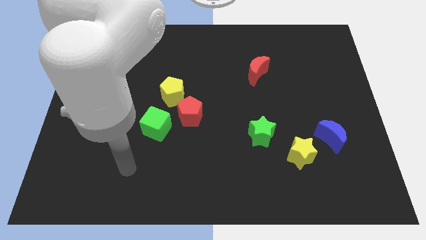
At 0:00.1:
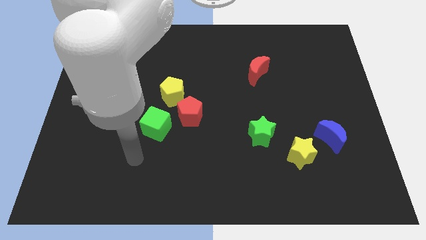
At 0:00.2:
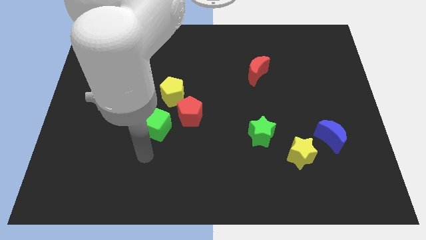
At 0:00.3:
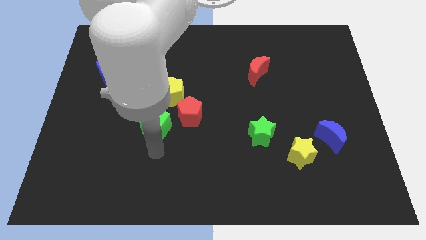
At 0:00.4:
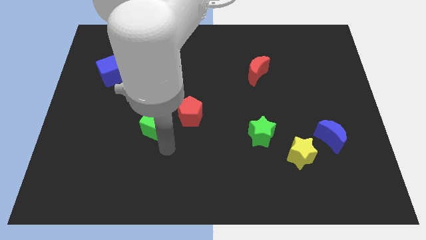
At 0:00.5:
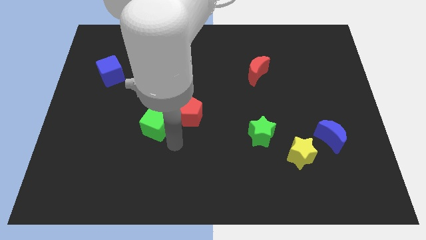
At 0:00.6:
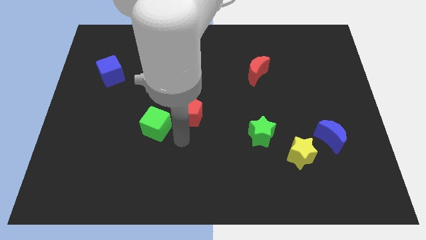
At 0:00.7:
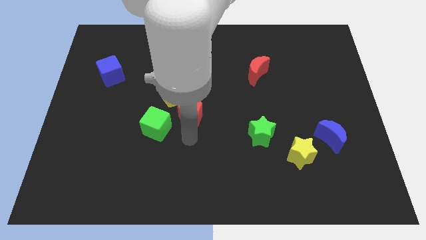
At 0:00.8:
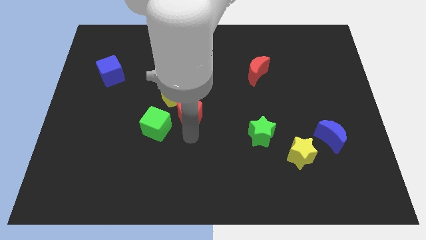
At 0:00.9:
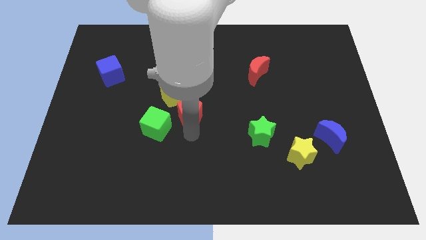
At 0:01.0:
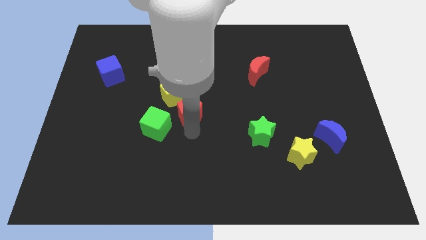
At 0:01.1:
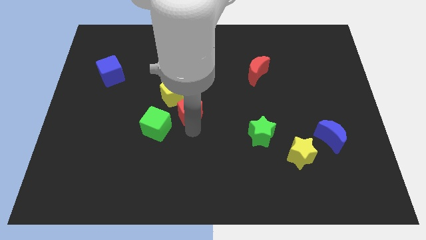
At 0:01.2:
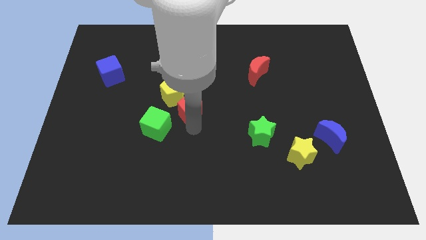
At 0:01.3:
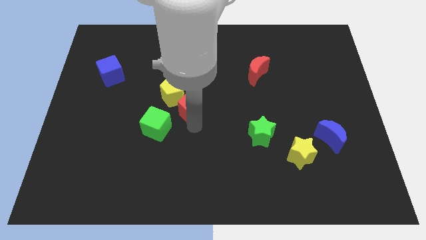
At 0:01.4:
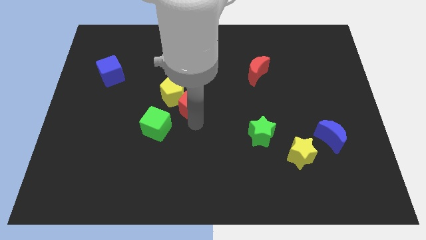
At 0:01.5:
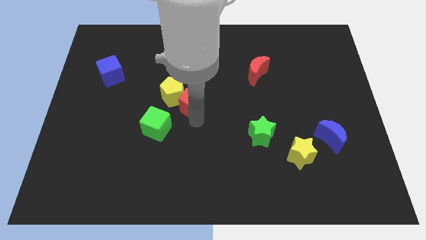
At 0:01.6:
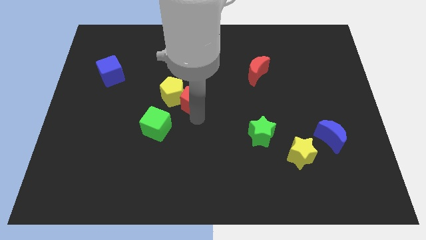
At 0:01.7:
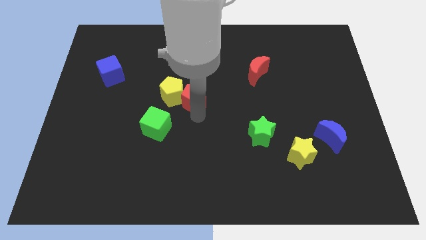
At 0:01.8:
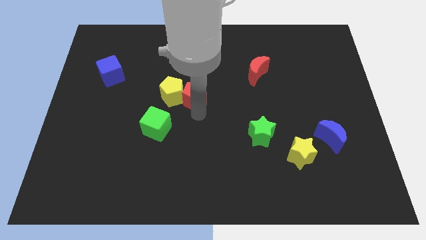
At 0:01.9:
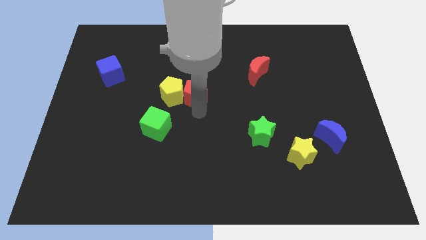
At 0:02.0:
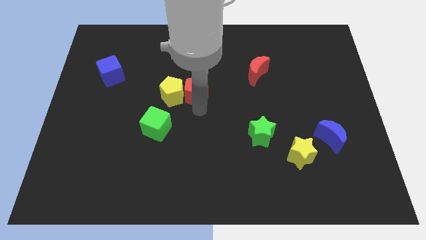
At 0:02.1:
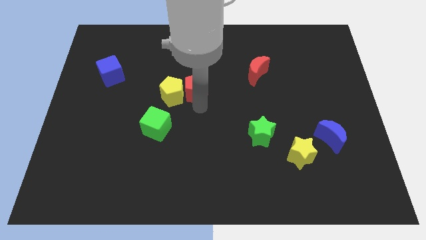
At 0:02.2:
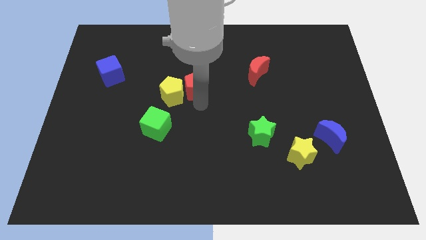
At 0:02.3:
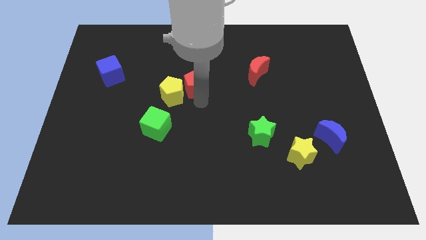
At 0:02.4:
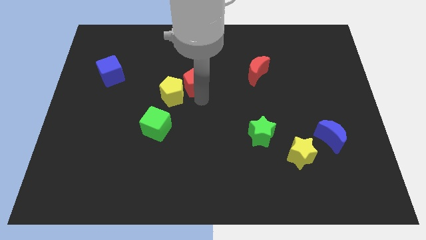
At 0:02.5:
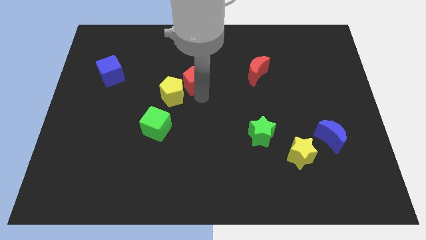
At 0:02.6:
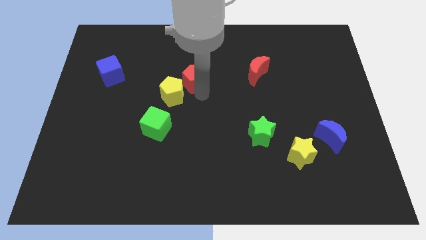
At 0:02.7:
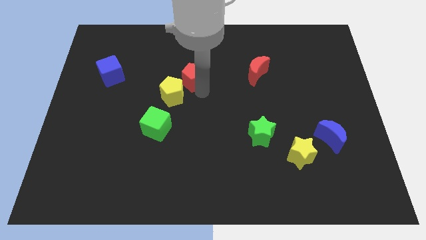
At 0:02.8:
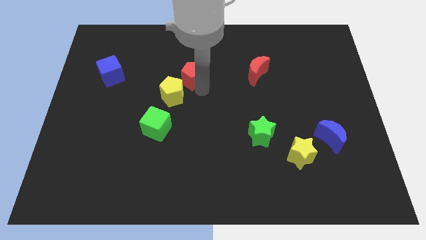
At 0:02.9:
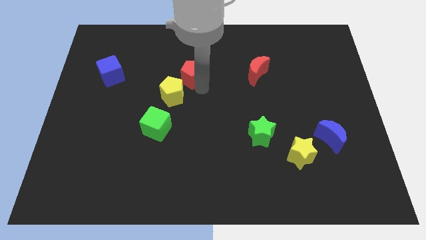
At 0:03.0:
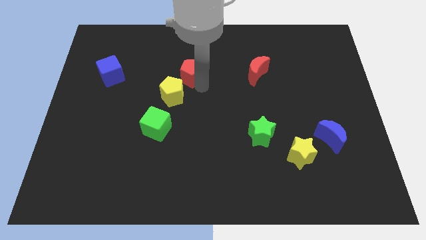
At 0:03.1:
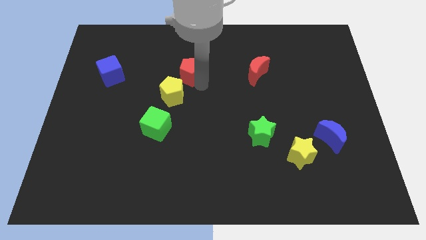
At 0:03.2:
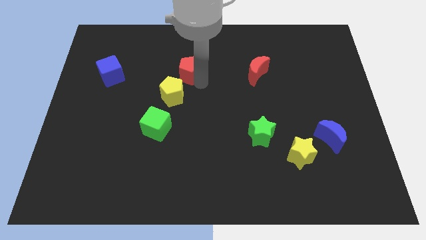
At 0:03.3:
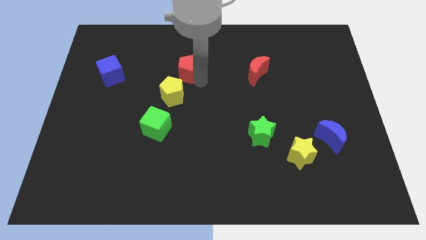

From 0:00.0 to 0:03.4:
slide the red pentagon somewhat up and then left

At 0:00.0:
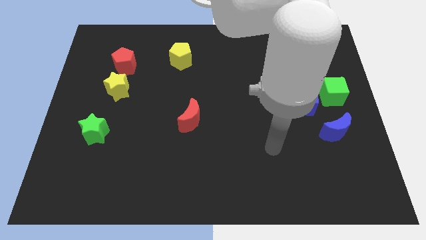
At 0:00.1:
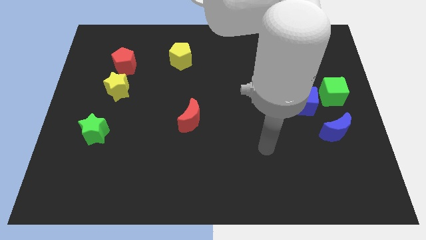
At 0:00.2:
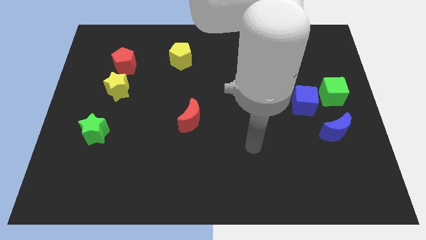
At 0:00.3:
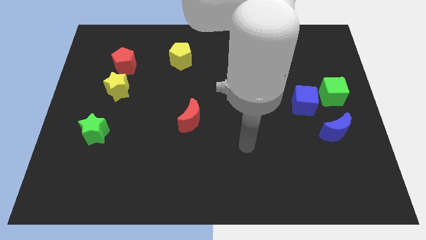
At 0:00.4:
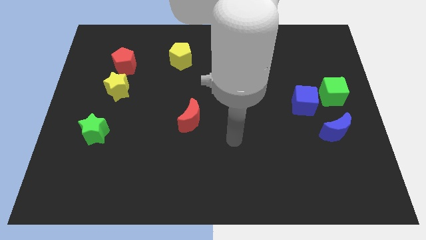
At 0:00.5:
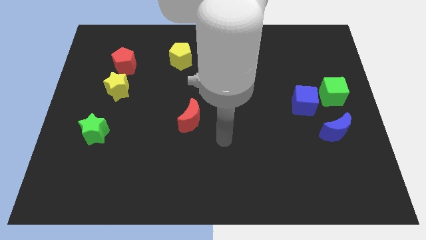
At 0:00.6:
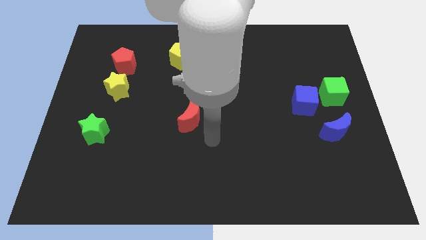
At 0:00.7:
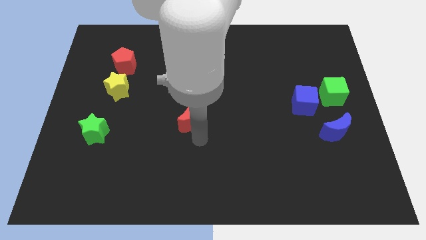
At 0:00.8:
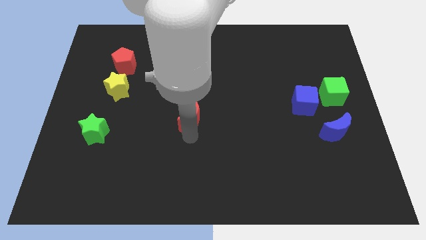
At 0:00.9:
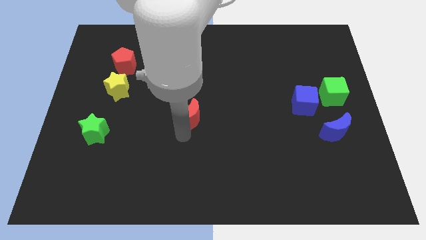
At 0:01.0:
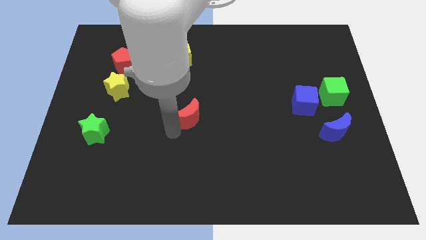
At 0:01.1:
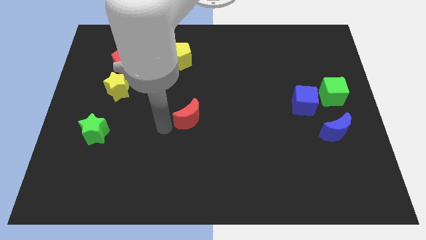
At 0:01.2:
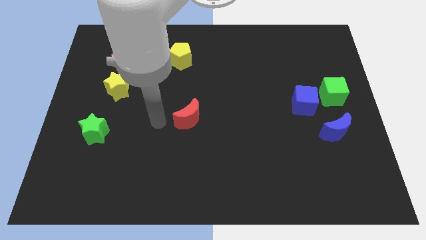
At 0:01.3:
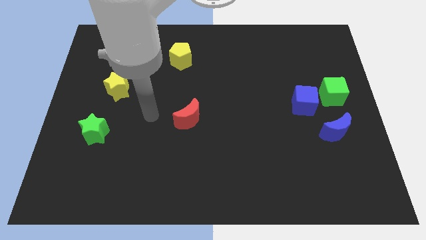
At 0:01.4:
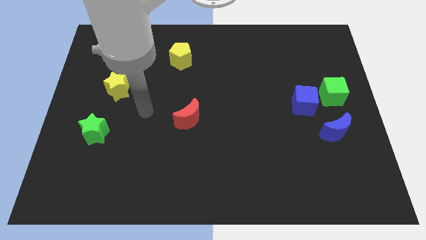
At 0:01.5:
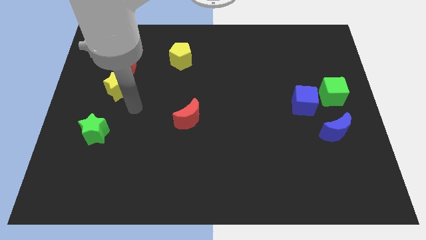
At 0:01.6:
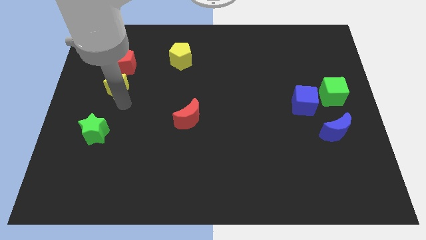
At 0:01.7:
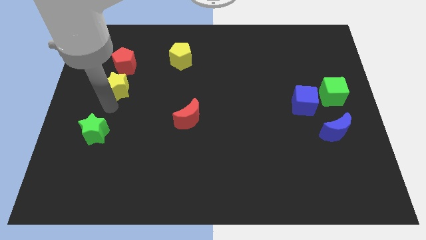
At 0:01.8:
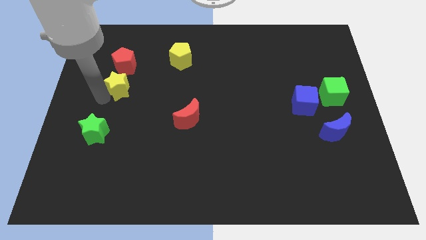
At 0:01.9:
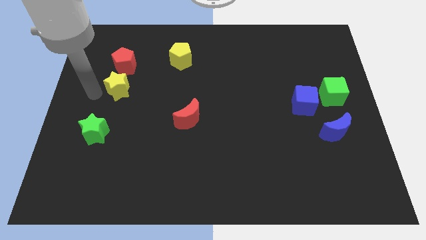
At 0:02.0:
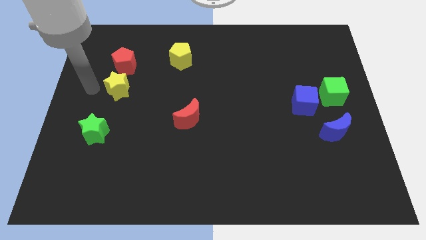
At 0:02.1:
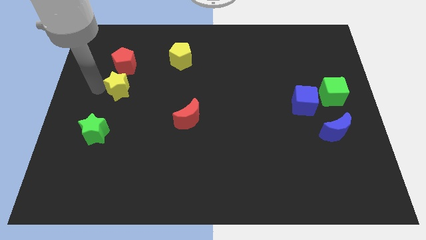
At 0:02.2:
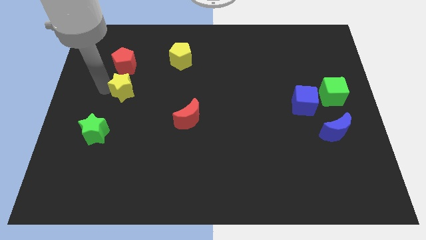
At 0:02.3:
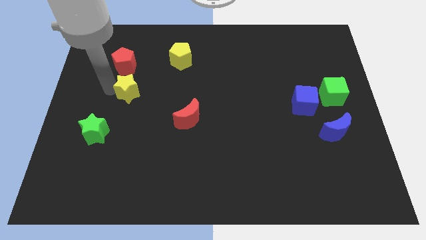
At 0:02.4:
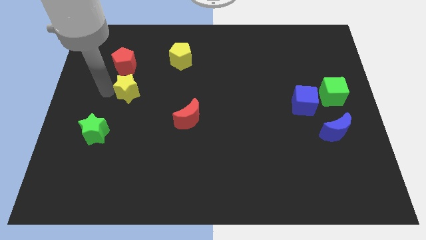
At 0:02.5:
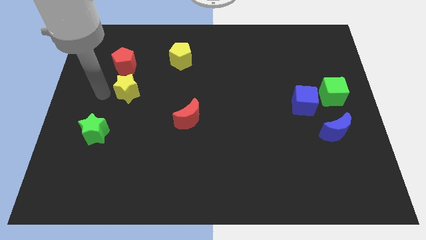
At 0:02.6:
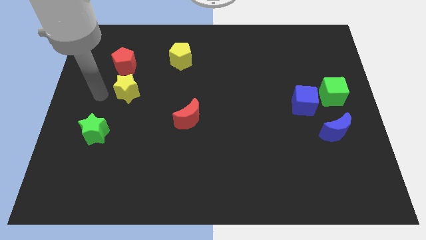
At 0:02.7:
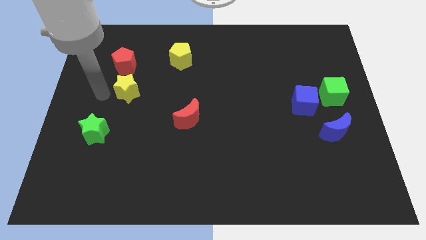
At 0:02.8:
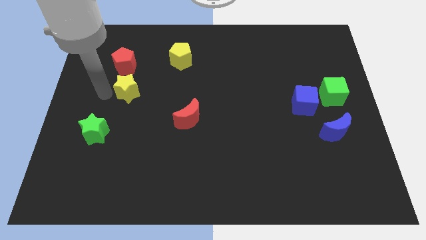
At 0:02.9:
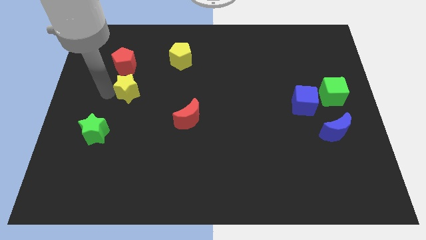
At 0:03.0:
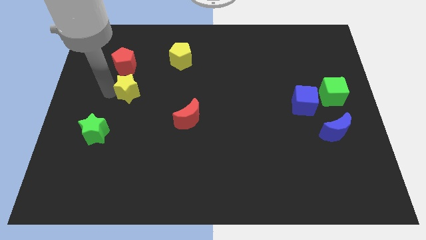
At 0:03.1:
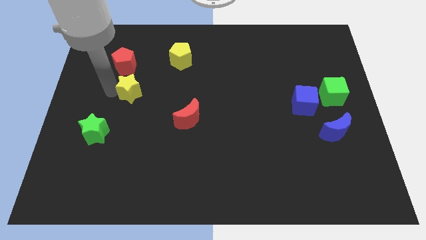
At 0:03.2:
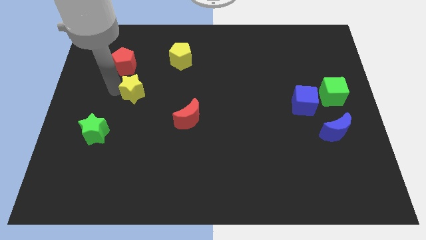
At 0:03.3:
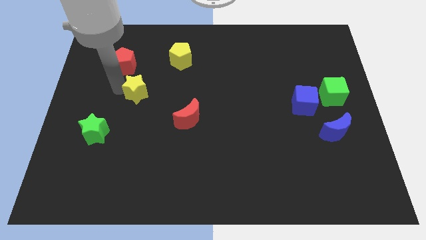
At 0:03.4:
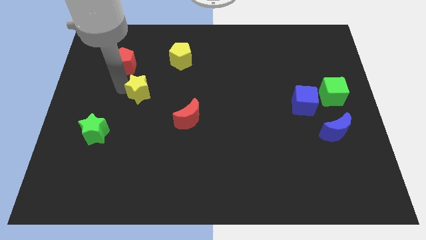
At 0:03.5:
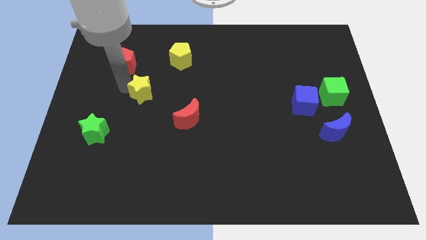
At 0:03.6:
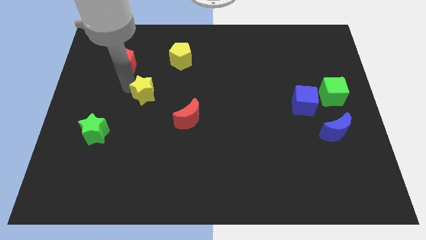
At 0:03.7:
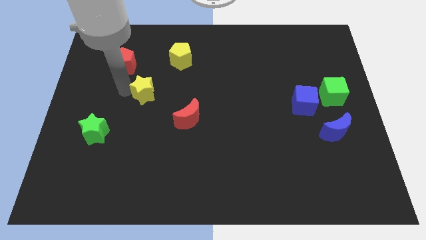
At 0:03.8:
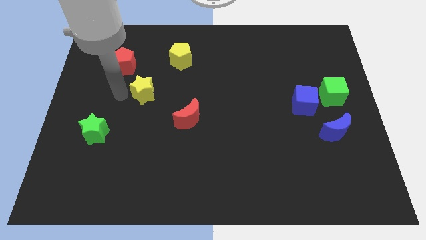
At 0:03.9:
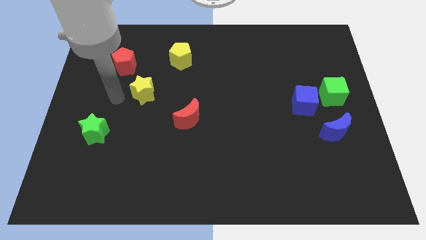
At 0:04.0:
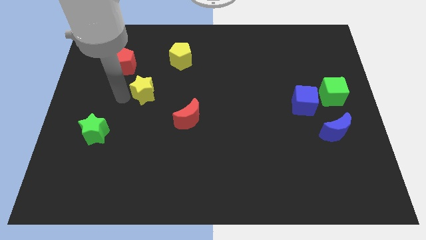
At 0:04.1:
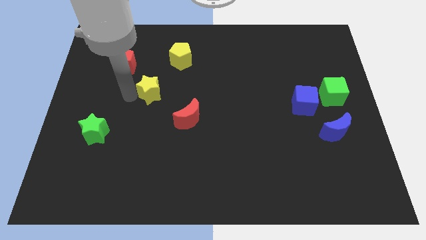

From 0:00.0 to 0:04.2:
move the yellow star slightly to the right

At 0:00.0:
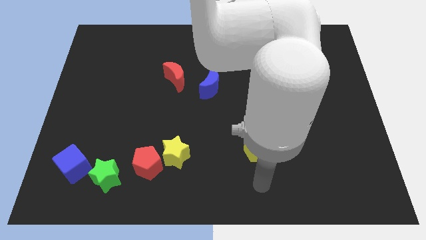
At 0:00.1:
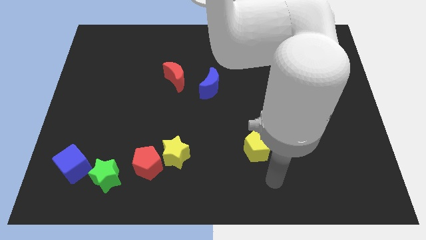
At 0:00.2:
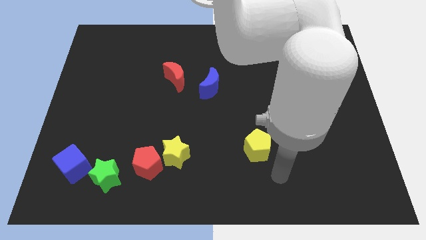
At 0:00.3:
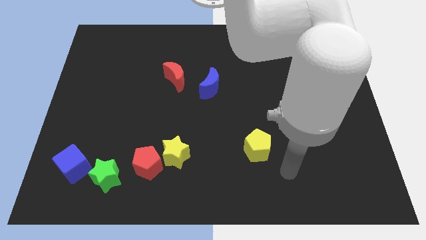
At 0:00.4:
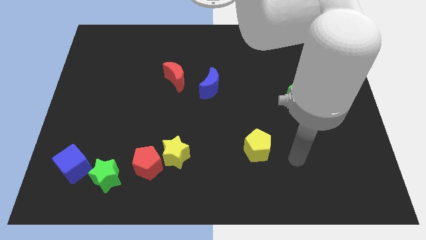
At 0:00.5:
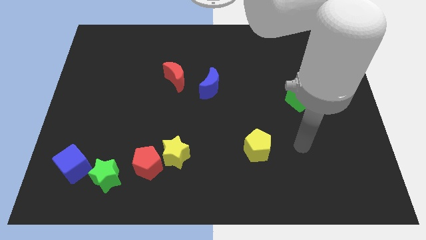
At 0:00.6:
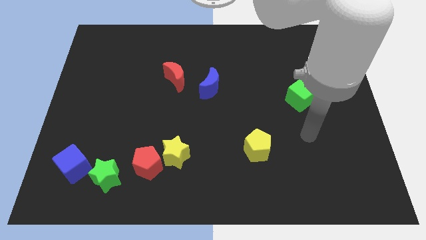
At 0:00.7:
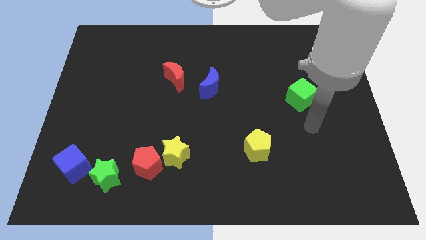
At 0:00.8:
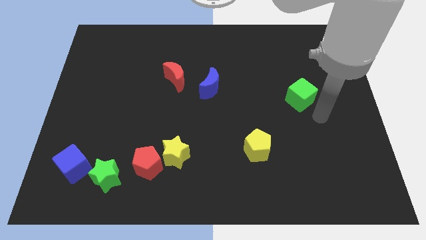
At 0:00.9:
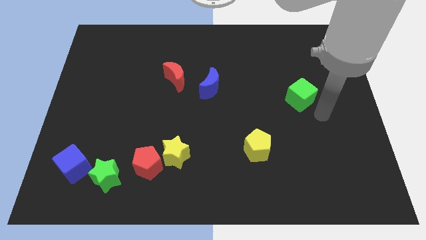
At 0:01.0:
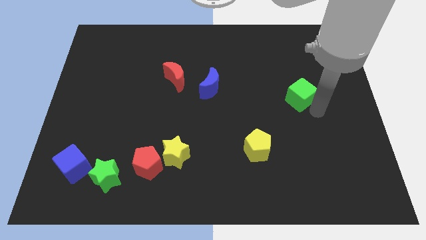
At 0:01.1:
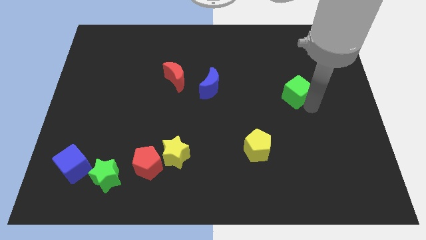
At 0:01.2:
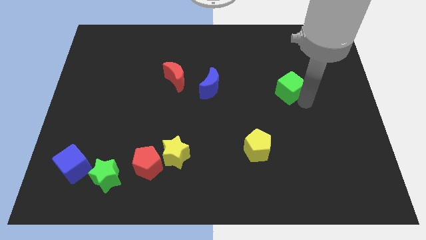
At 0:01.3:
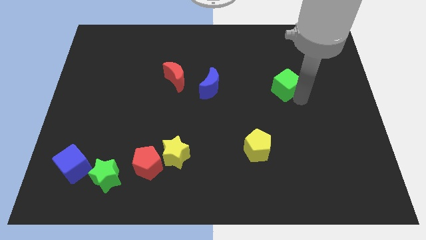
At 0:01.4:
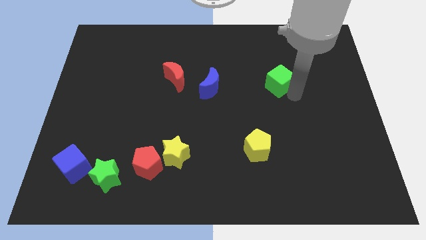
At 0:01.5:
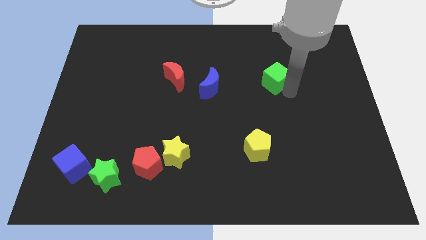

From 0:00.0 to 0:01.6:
slide the green cube diagonally upwards and to the left somewhat
